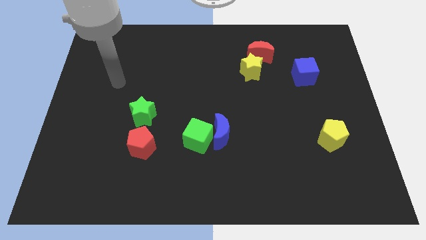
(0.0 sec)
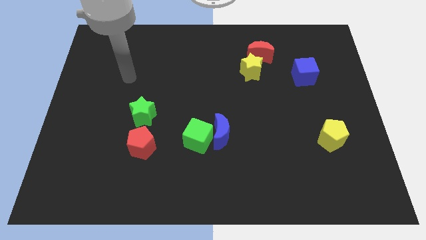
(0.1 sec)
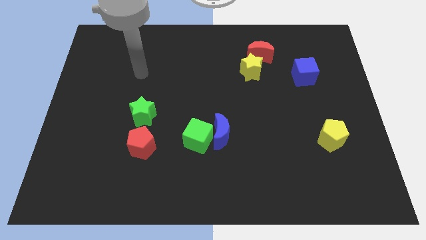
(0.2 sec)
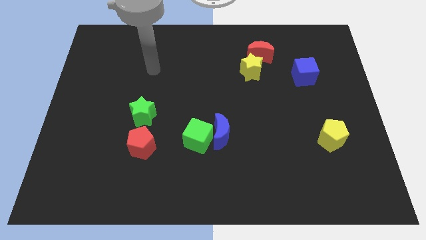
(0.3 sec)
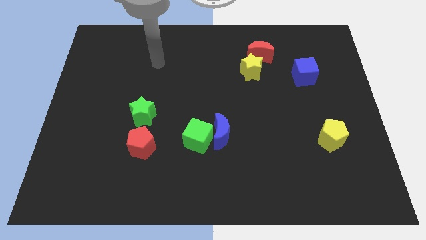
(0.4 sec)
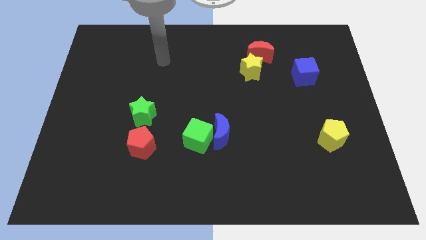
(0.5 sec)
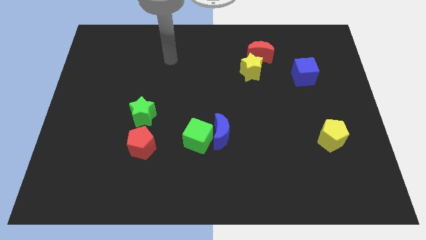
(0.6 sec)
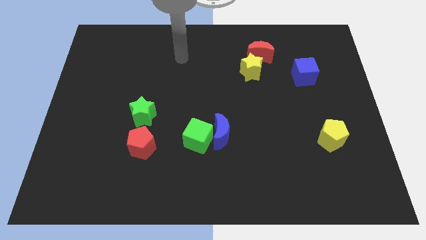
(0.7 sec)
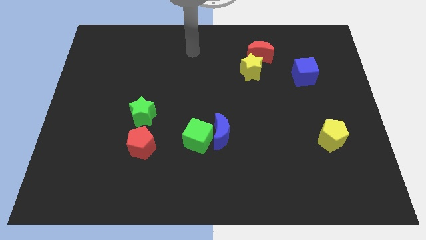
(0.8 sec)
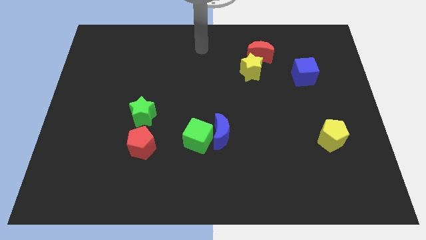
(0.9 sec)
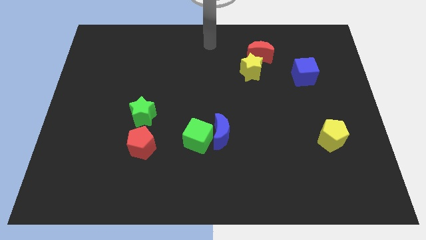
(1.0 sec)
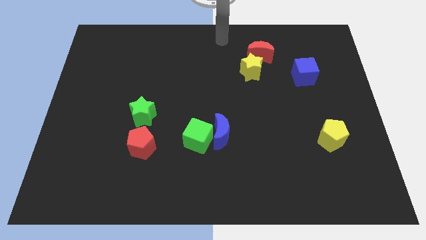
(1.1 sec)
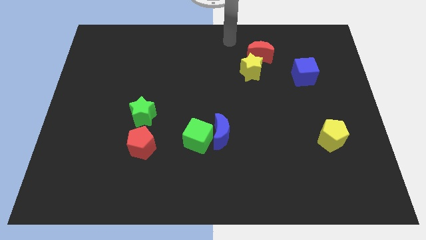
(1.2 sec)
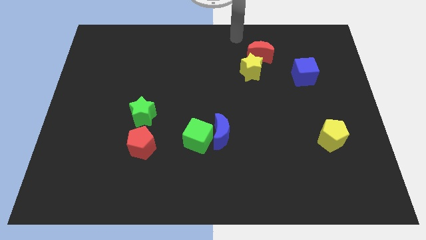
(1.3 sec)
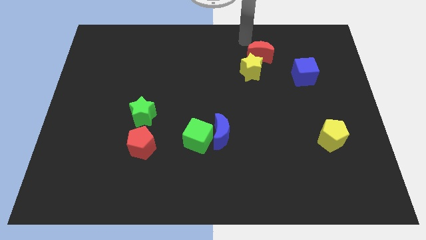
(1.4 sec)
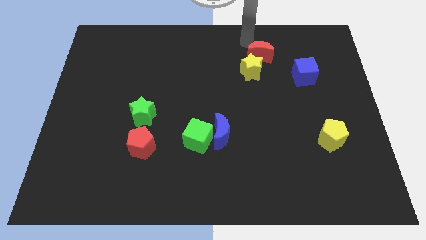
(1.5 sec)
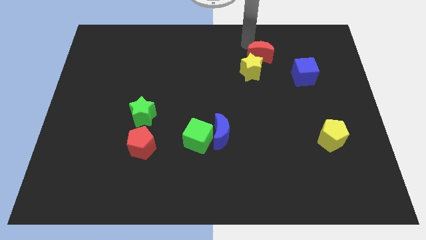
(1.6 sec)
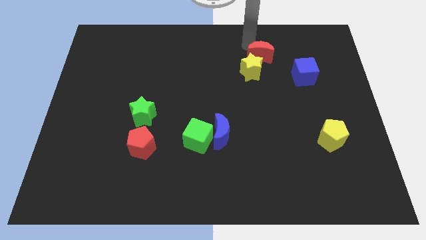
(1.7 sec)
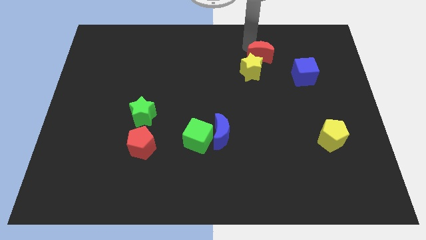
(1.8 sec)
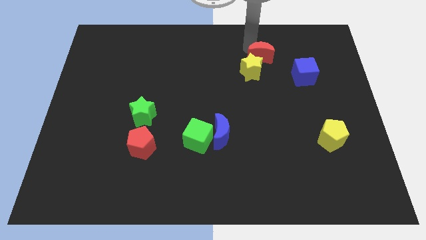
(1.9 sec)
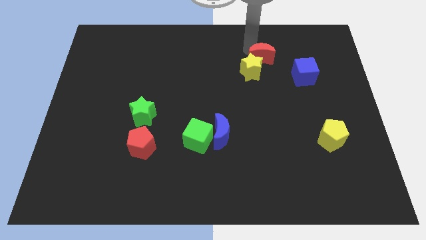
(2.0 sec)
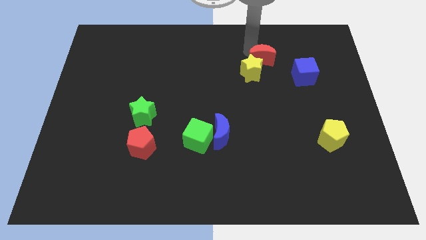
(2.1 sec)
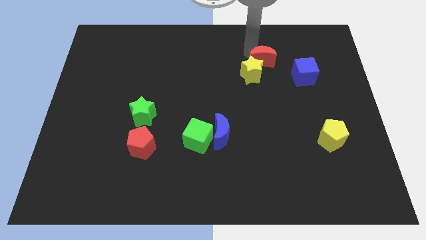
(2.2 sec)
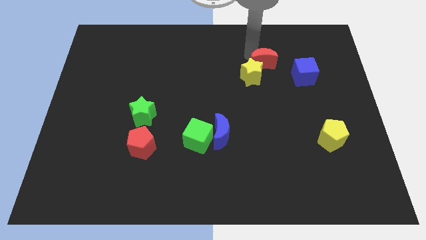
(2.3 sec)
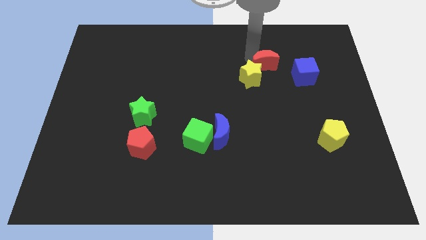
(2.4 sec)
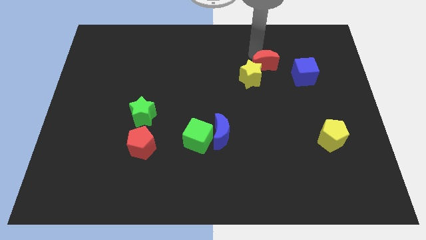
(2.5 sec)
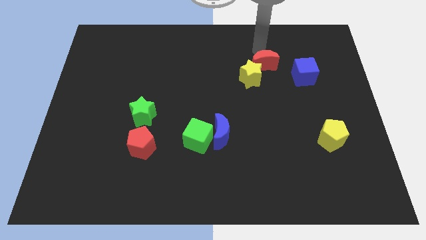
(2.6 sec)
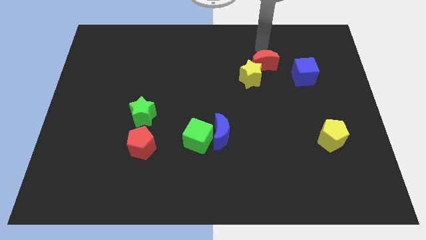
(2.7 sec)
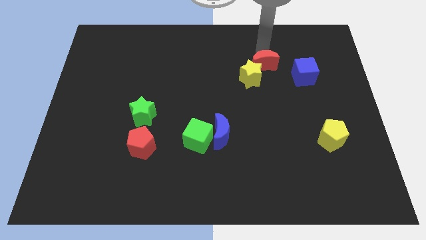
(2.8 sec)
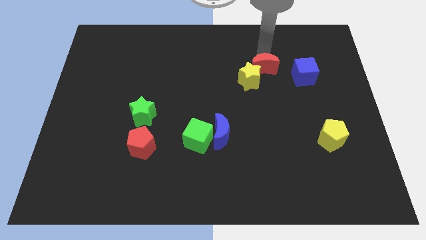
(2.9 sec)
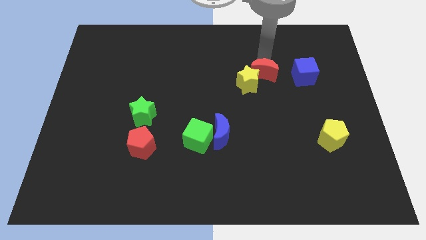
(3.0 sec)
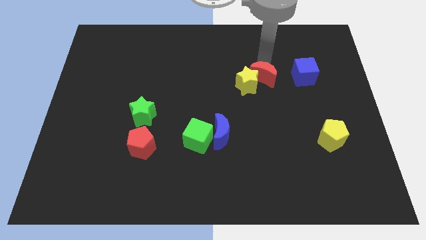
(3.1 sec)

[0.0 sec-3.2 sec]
push the red moon a little bit down

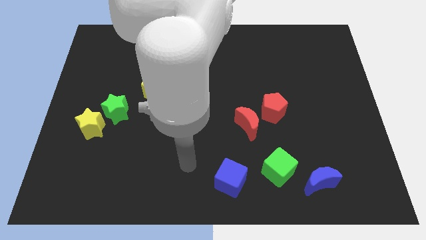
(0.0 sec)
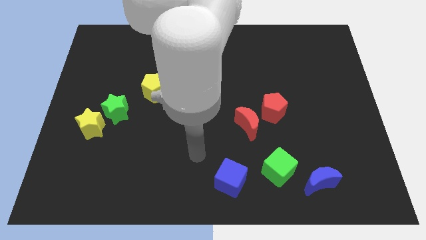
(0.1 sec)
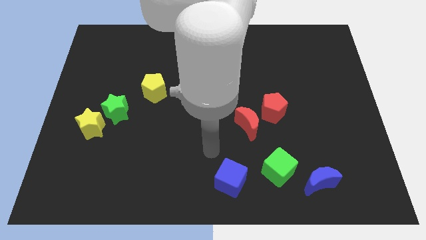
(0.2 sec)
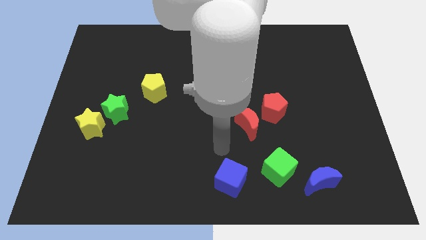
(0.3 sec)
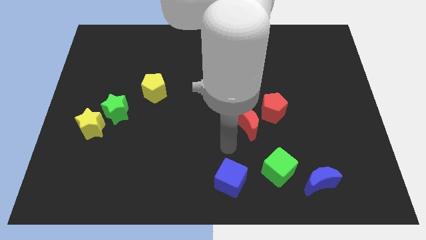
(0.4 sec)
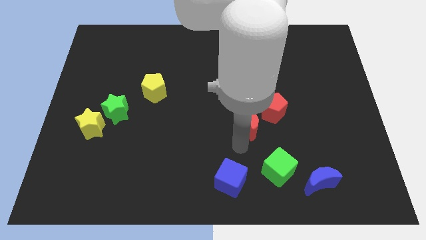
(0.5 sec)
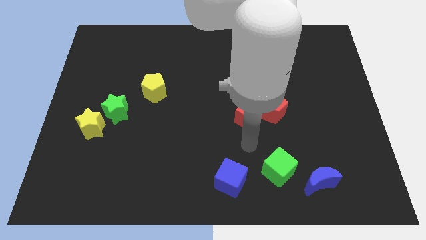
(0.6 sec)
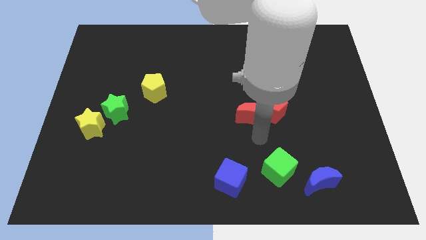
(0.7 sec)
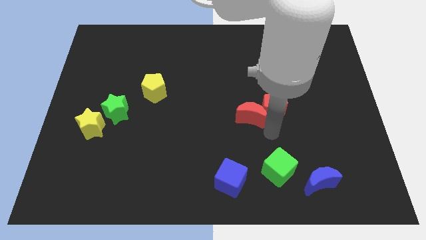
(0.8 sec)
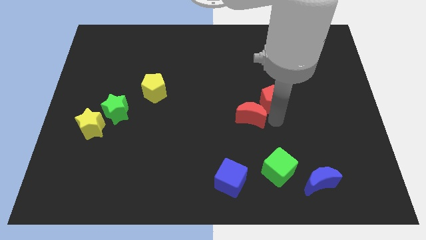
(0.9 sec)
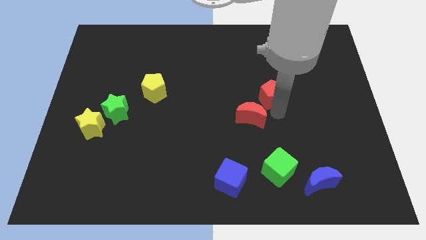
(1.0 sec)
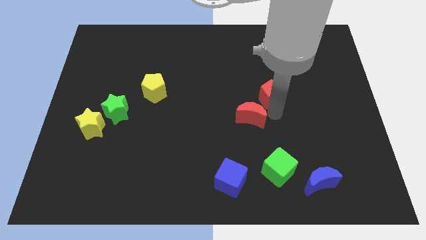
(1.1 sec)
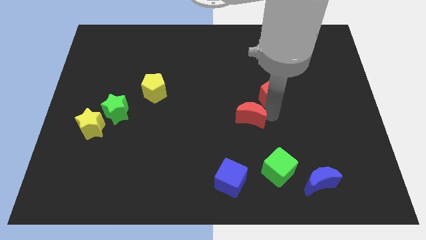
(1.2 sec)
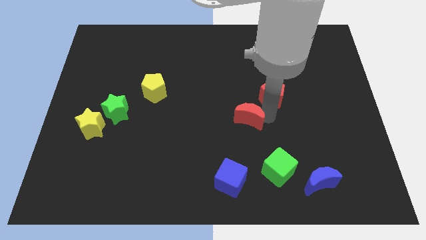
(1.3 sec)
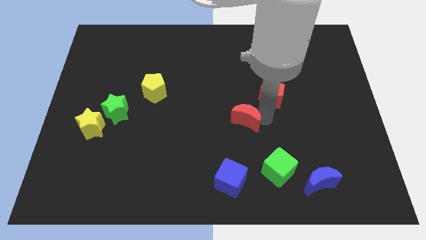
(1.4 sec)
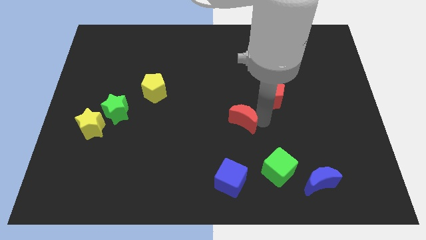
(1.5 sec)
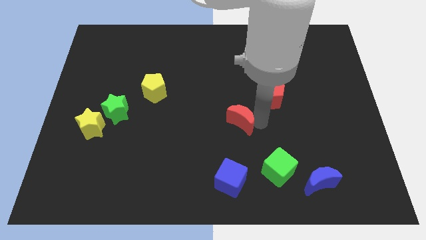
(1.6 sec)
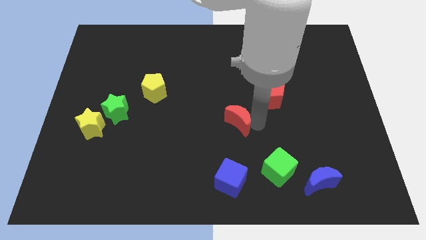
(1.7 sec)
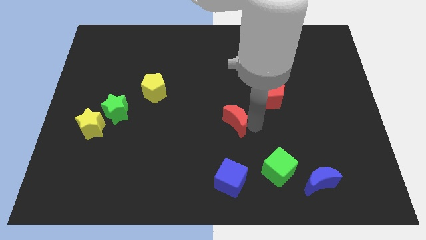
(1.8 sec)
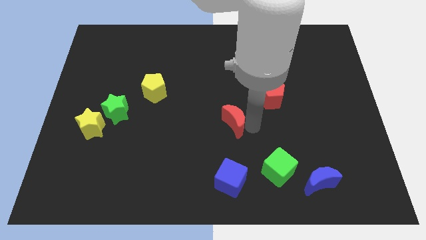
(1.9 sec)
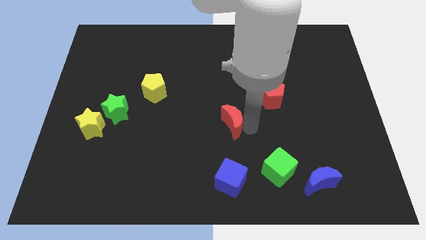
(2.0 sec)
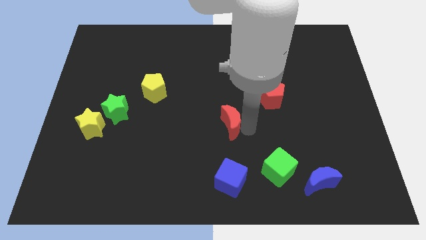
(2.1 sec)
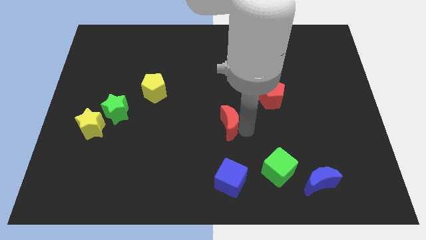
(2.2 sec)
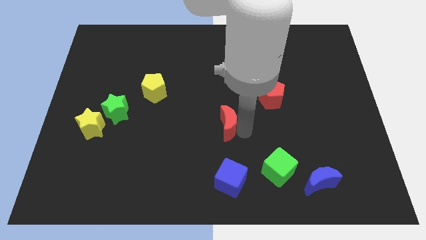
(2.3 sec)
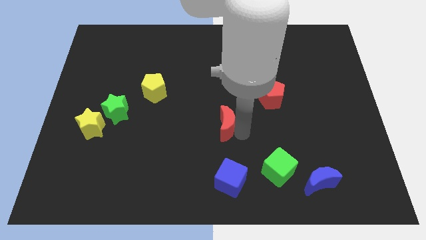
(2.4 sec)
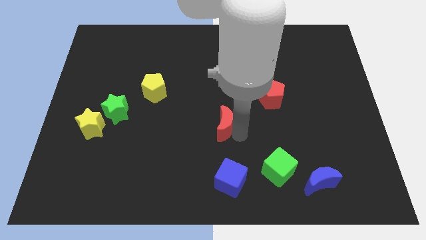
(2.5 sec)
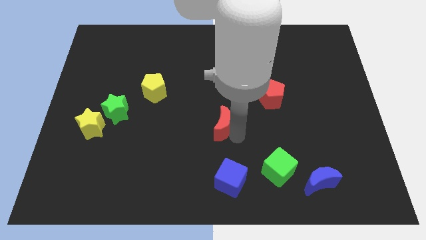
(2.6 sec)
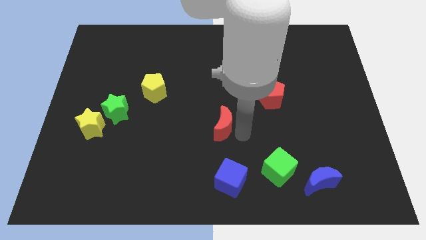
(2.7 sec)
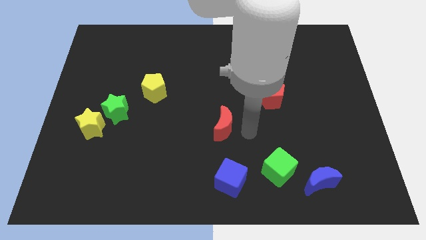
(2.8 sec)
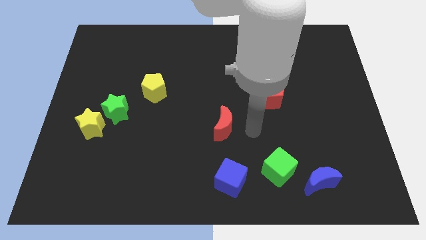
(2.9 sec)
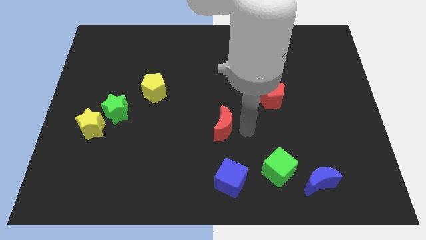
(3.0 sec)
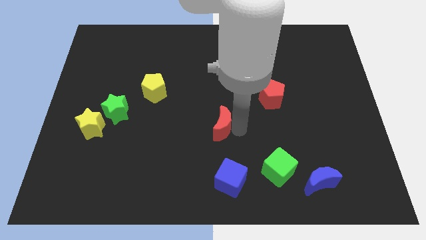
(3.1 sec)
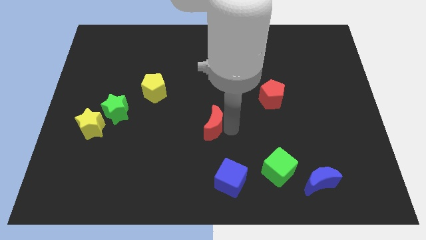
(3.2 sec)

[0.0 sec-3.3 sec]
push the red moon to the left slightly

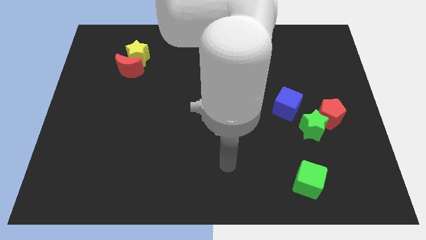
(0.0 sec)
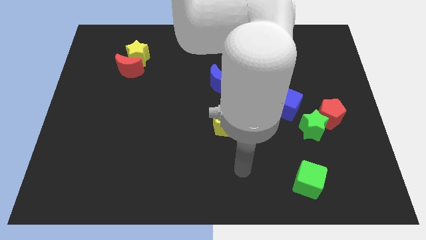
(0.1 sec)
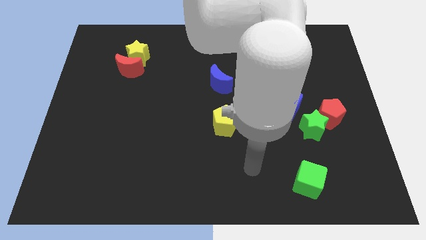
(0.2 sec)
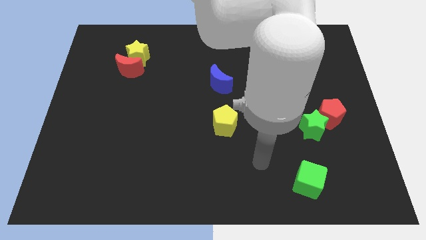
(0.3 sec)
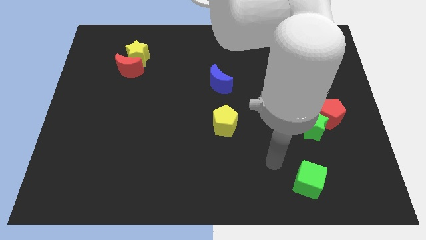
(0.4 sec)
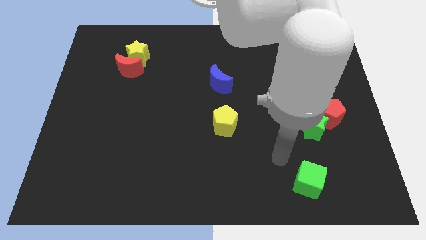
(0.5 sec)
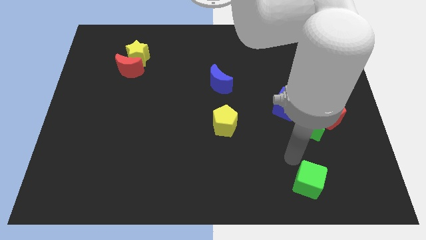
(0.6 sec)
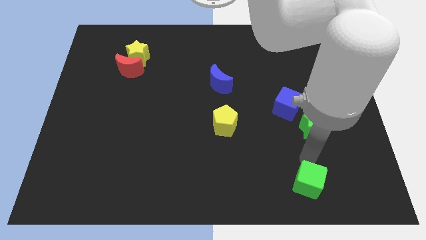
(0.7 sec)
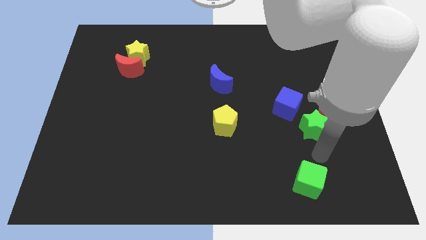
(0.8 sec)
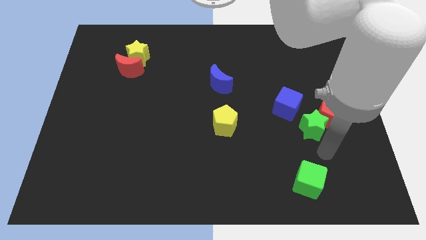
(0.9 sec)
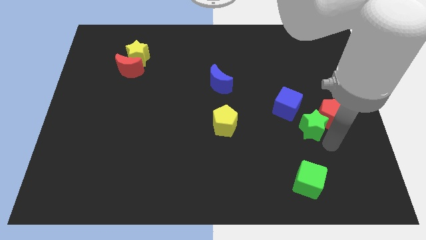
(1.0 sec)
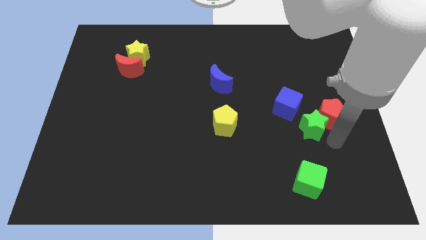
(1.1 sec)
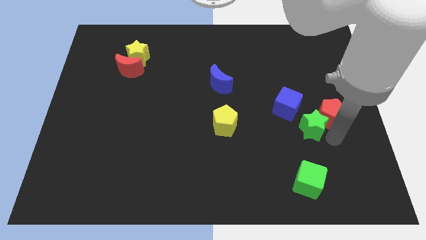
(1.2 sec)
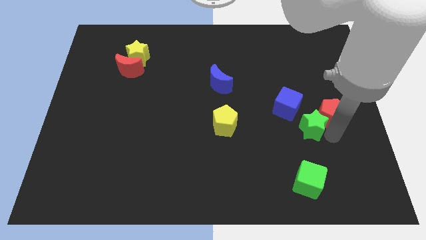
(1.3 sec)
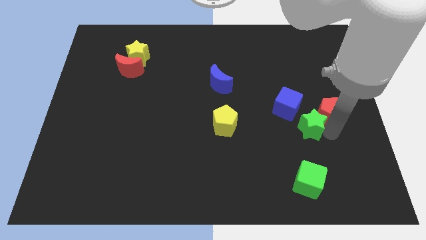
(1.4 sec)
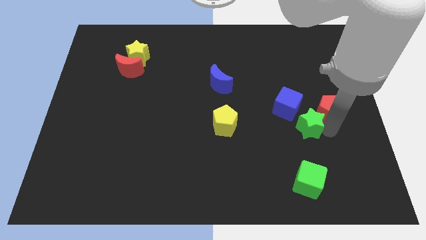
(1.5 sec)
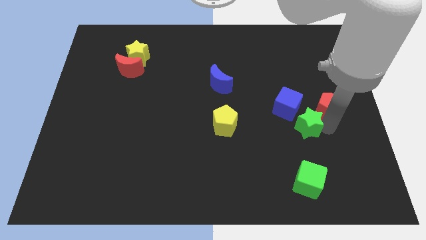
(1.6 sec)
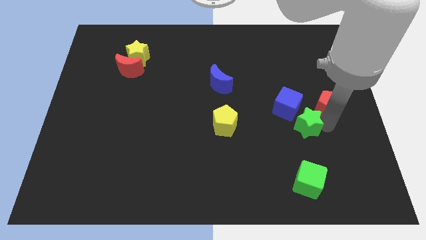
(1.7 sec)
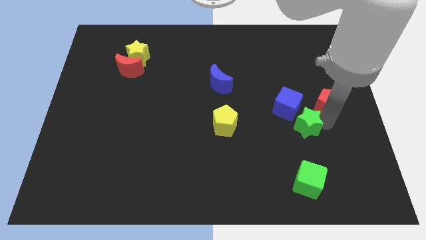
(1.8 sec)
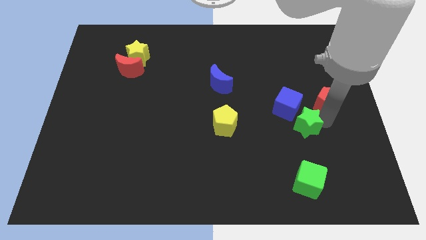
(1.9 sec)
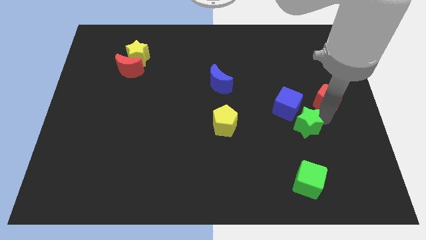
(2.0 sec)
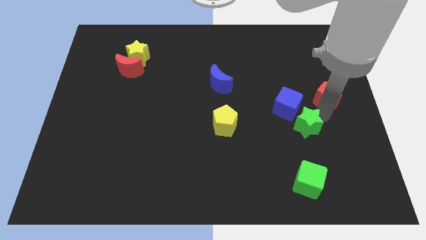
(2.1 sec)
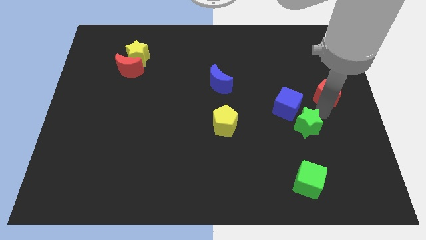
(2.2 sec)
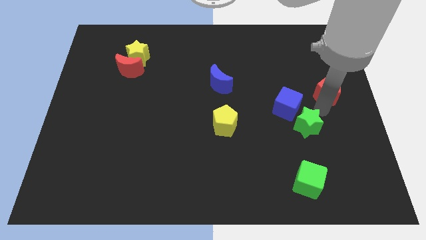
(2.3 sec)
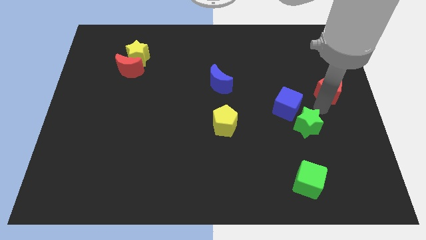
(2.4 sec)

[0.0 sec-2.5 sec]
slide the red pentagon upwards a little bit
